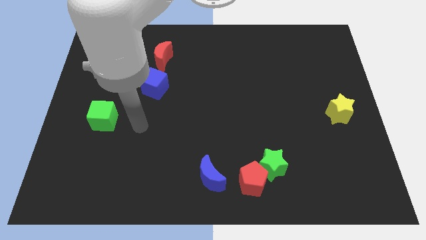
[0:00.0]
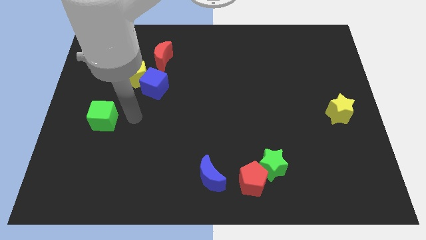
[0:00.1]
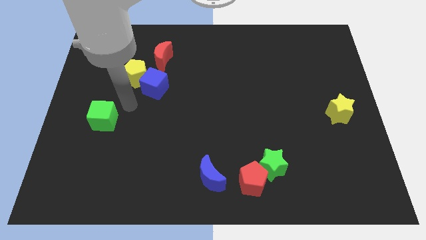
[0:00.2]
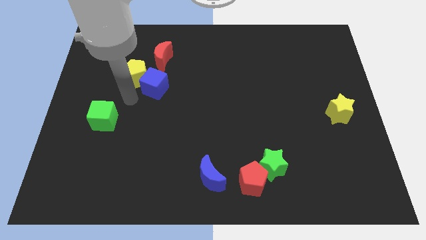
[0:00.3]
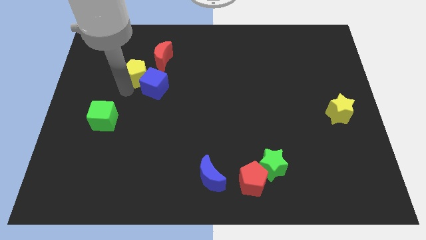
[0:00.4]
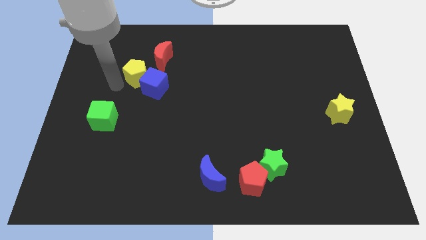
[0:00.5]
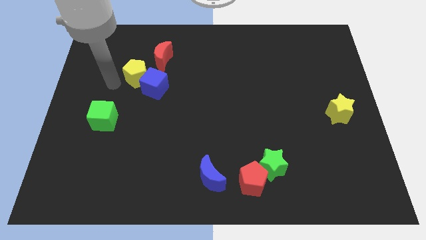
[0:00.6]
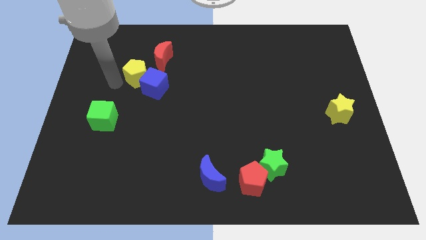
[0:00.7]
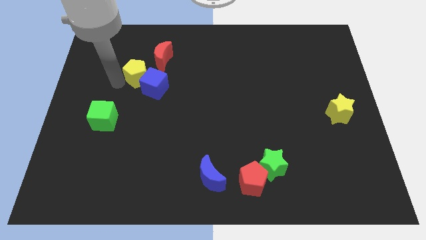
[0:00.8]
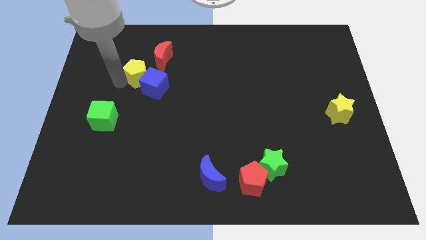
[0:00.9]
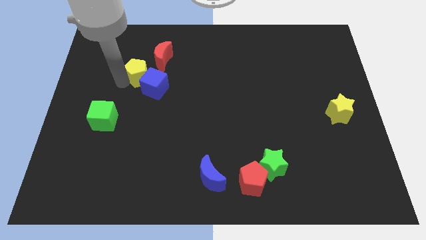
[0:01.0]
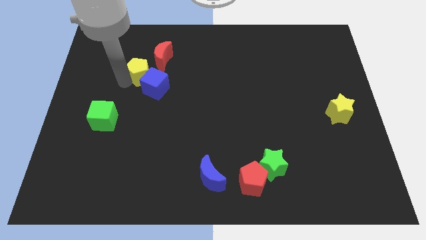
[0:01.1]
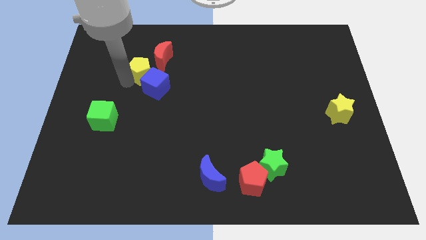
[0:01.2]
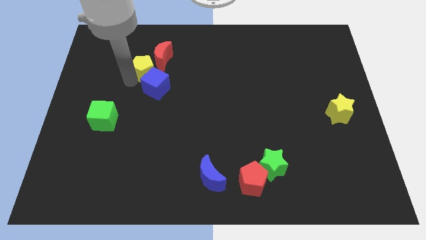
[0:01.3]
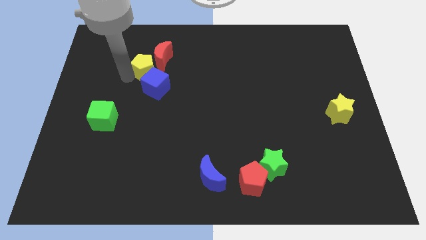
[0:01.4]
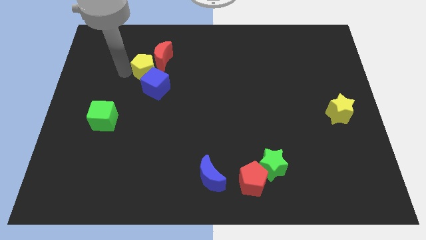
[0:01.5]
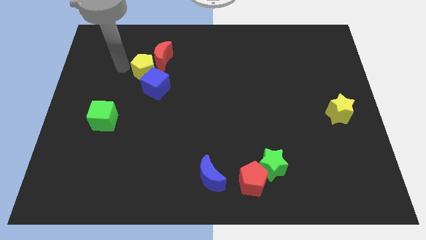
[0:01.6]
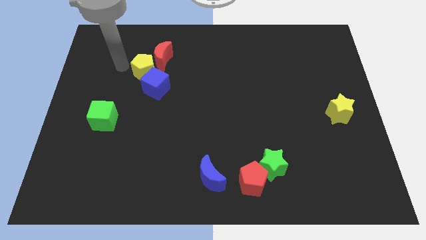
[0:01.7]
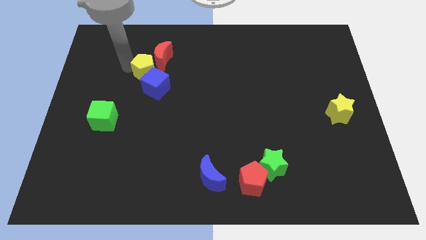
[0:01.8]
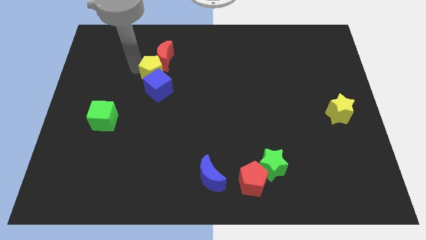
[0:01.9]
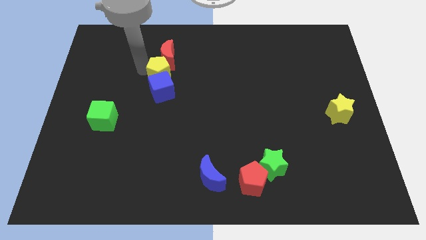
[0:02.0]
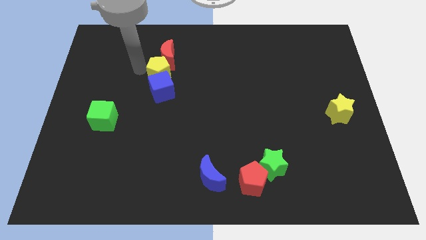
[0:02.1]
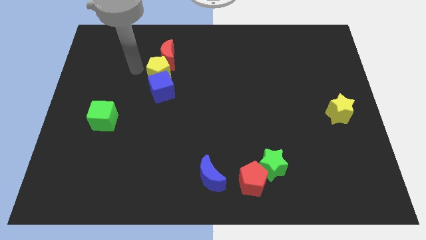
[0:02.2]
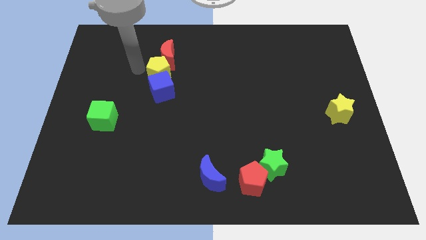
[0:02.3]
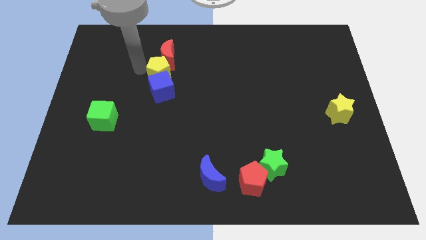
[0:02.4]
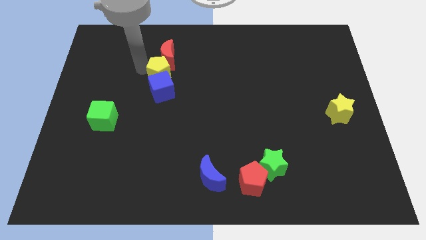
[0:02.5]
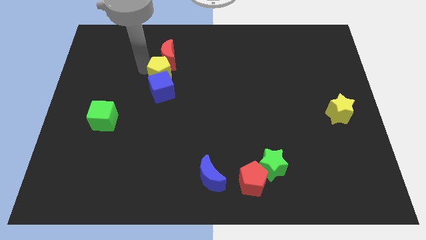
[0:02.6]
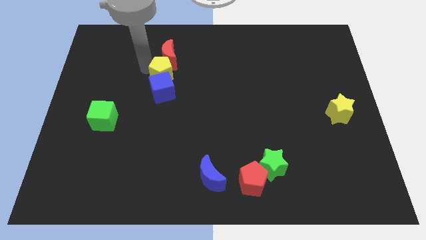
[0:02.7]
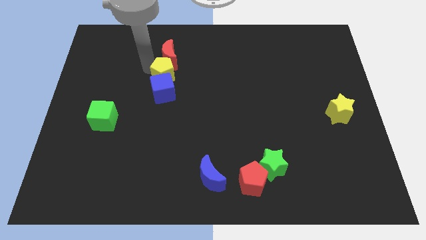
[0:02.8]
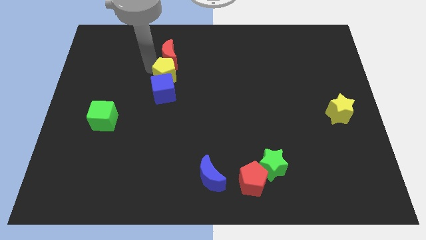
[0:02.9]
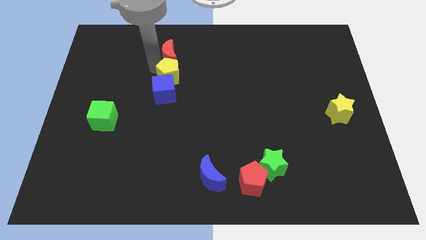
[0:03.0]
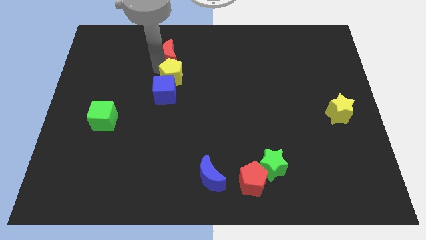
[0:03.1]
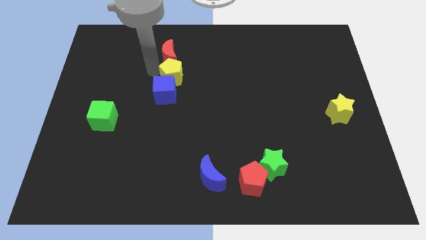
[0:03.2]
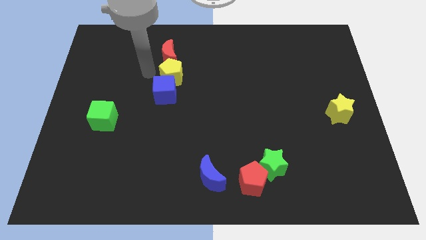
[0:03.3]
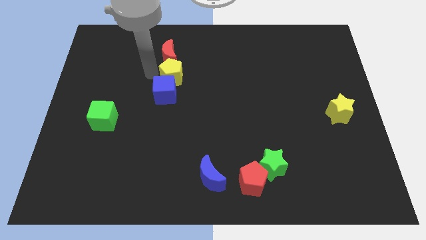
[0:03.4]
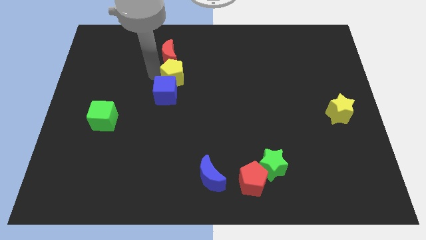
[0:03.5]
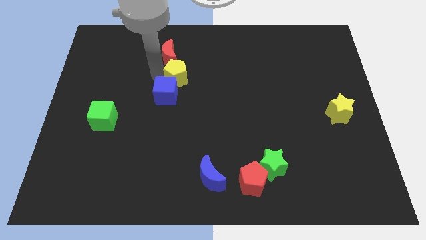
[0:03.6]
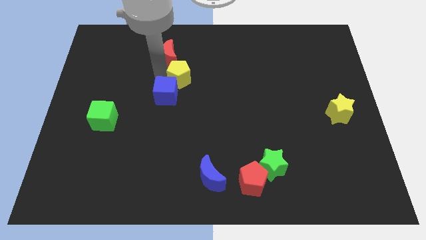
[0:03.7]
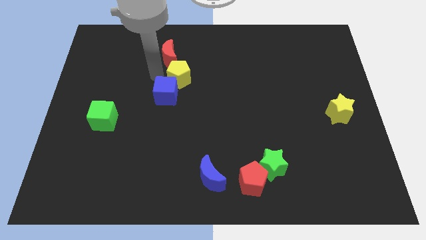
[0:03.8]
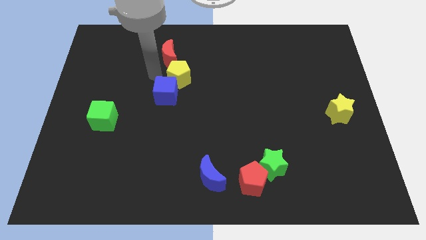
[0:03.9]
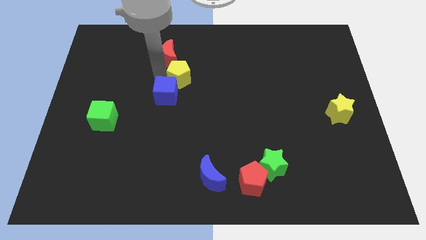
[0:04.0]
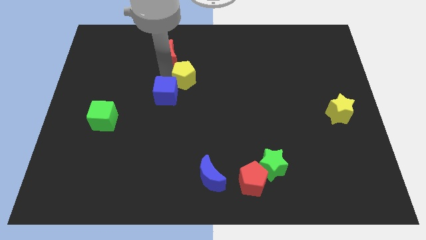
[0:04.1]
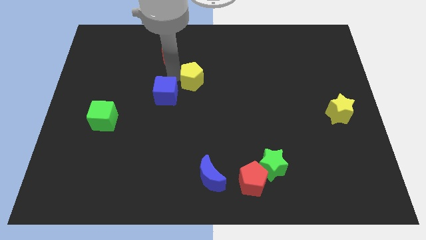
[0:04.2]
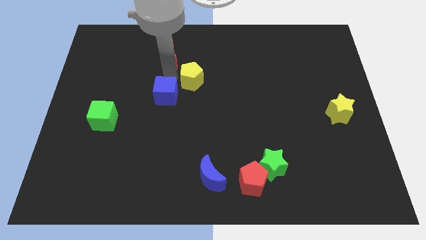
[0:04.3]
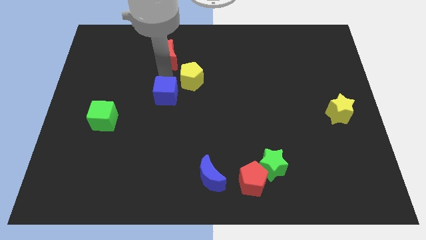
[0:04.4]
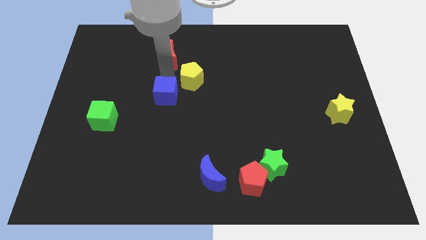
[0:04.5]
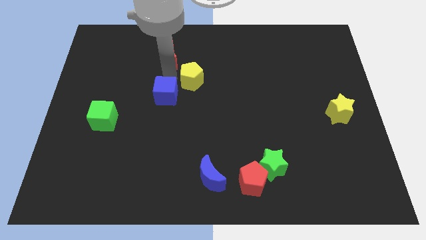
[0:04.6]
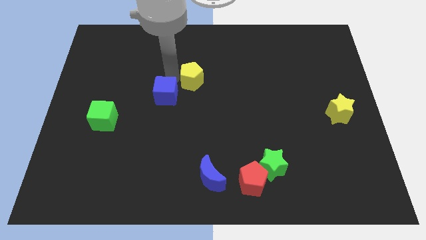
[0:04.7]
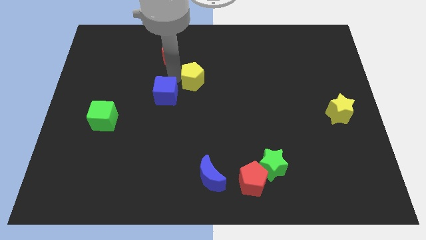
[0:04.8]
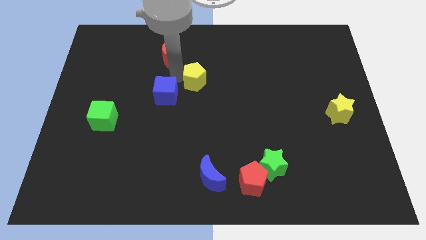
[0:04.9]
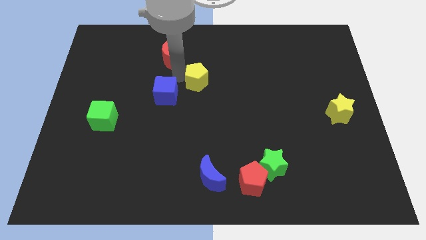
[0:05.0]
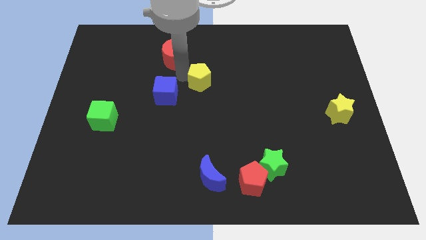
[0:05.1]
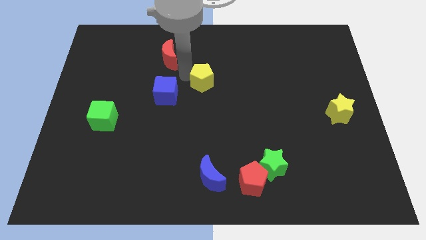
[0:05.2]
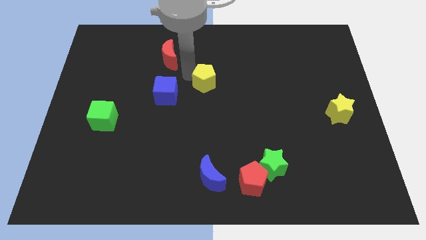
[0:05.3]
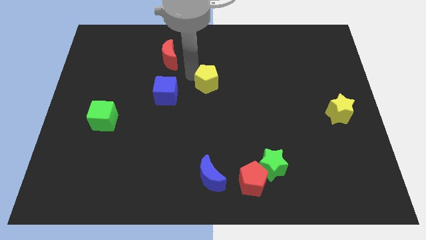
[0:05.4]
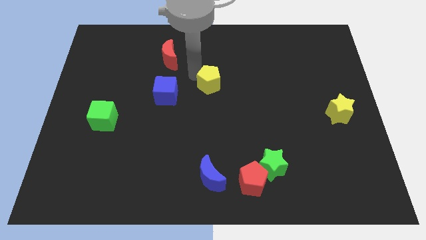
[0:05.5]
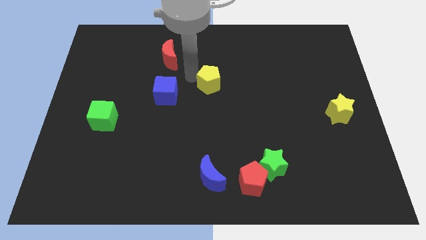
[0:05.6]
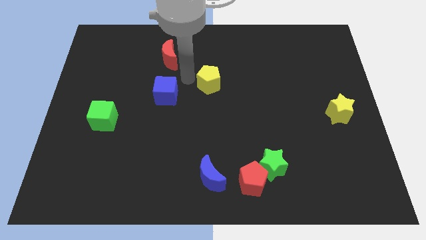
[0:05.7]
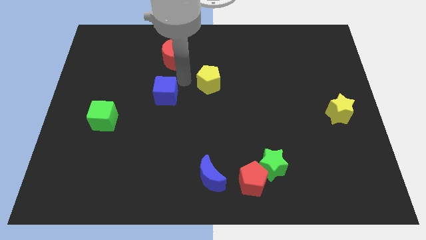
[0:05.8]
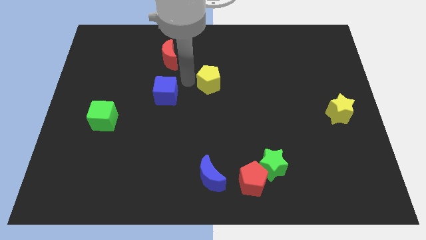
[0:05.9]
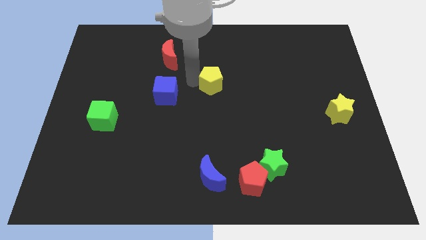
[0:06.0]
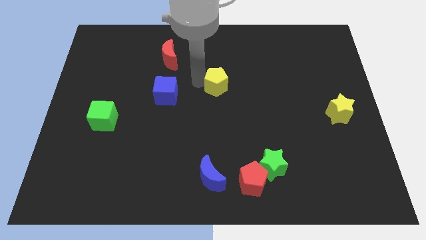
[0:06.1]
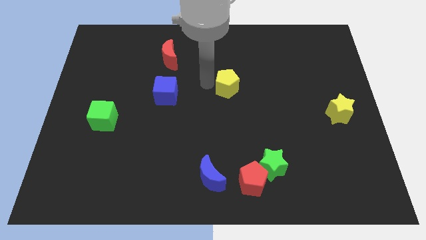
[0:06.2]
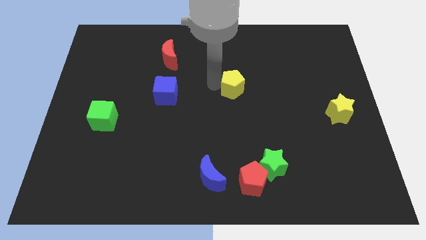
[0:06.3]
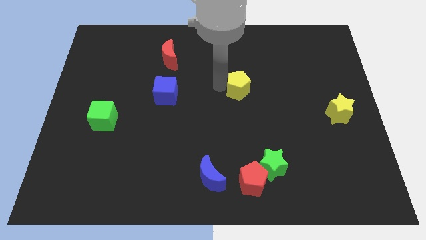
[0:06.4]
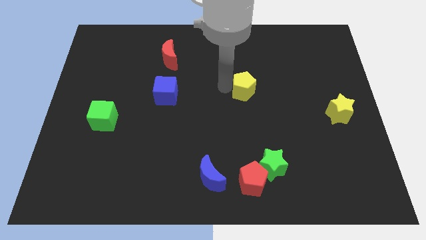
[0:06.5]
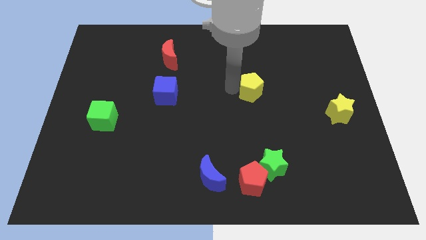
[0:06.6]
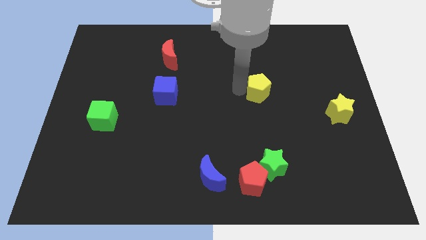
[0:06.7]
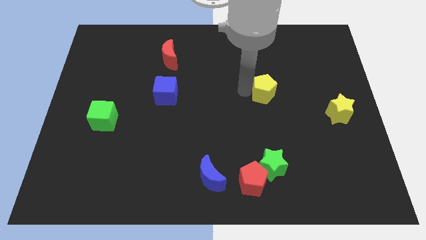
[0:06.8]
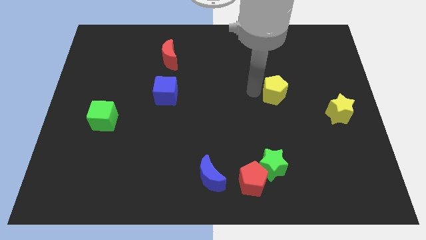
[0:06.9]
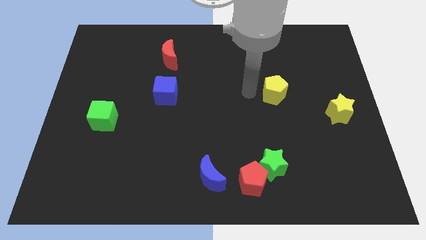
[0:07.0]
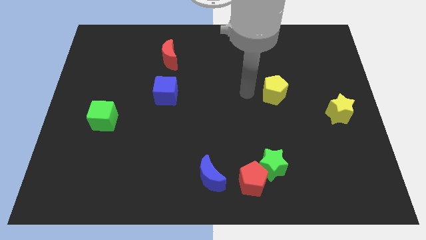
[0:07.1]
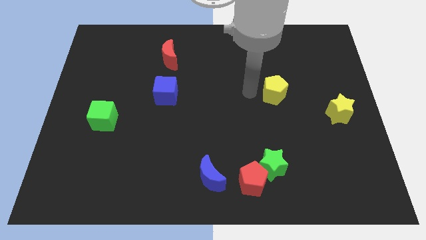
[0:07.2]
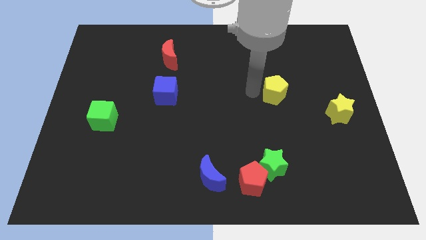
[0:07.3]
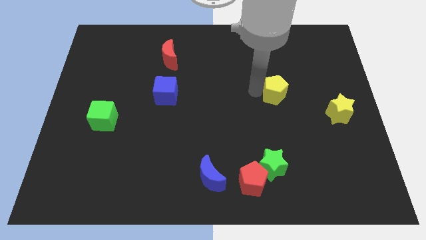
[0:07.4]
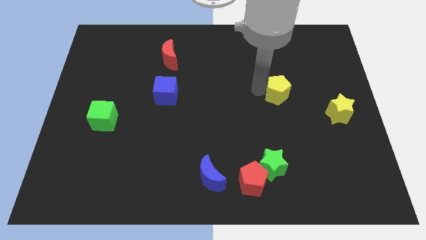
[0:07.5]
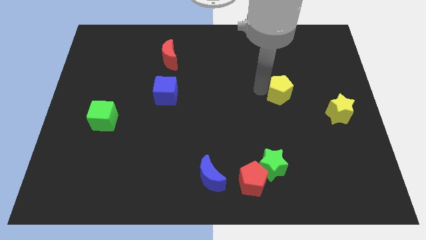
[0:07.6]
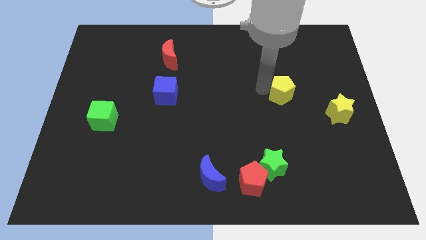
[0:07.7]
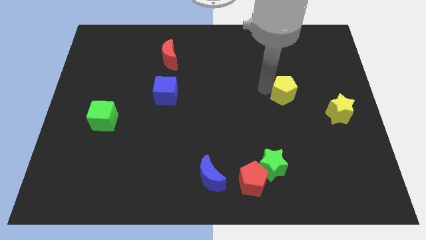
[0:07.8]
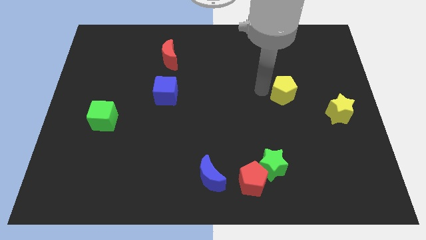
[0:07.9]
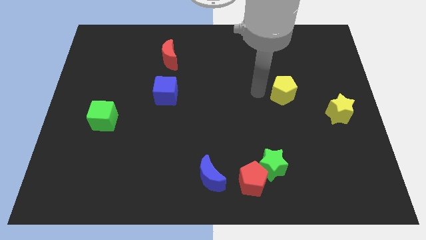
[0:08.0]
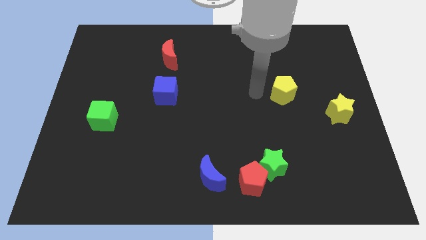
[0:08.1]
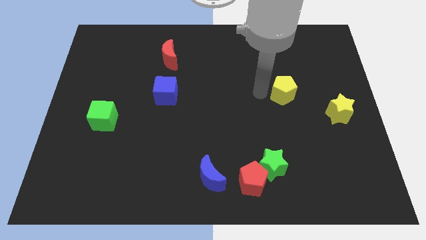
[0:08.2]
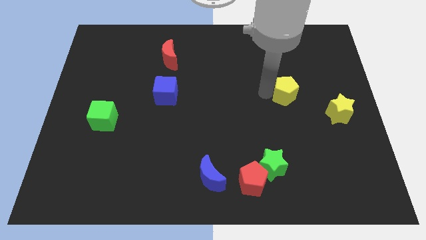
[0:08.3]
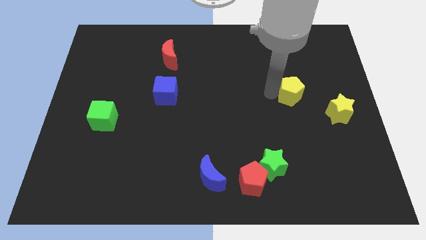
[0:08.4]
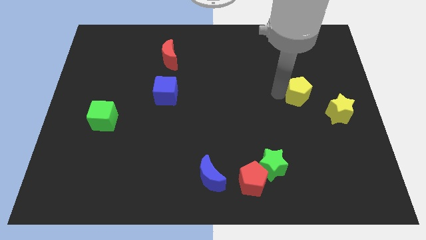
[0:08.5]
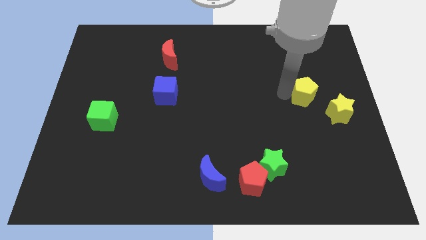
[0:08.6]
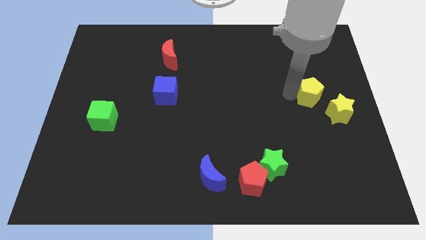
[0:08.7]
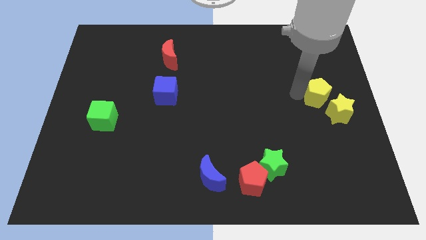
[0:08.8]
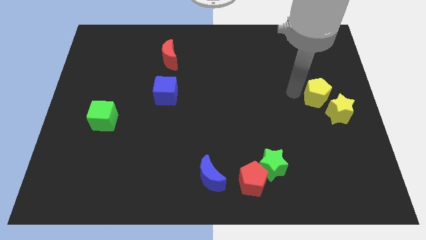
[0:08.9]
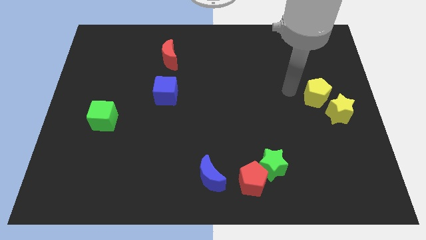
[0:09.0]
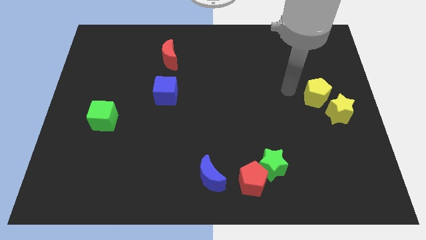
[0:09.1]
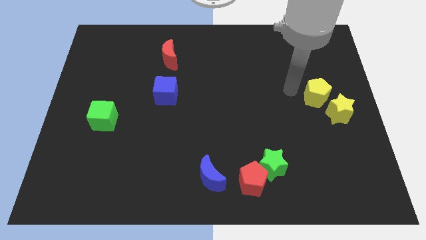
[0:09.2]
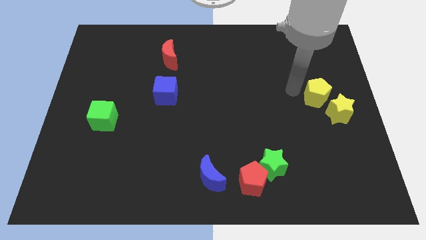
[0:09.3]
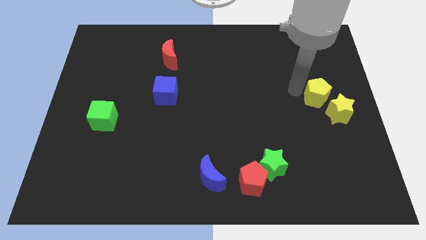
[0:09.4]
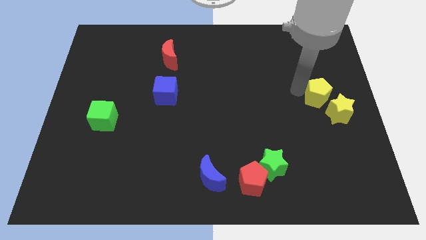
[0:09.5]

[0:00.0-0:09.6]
move the yellow pentagon to the center right
